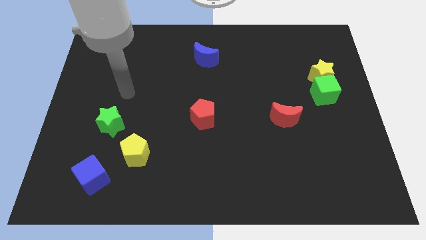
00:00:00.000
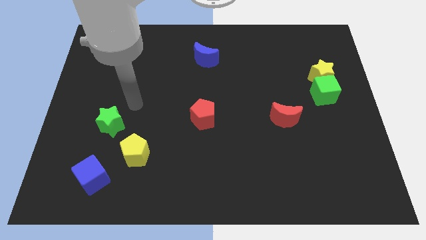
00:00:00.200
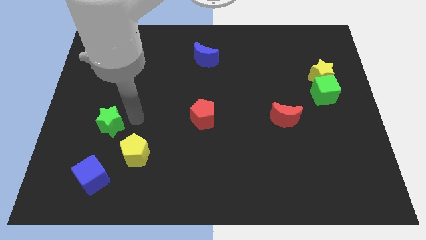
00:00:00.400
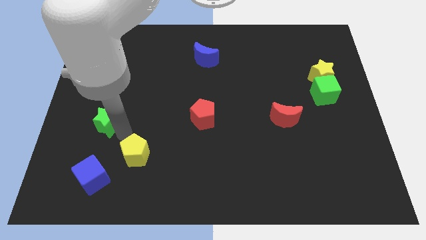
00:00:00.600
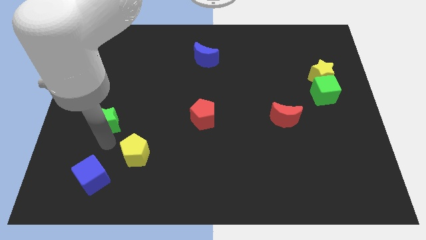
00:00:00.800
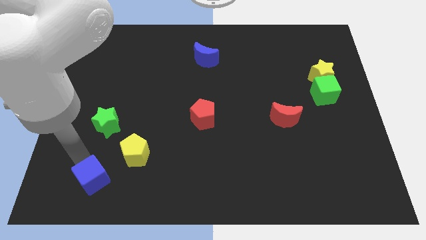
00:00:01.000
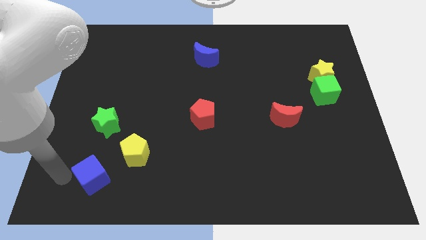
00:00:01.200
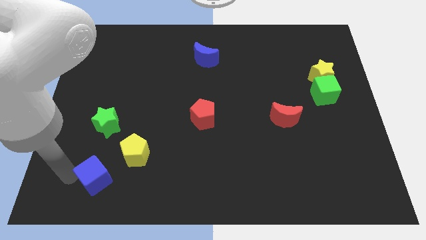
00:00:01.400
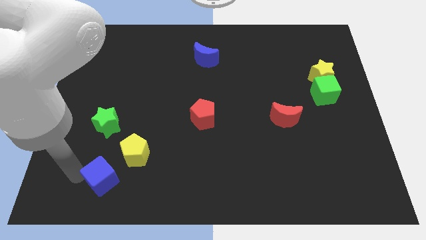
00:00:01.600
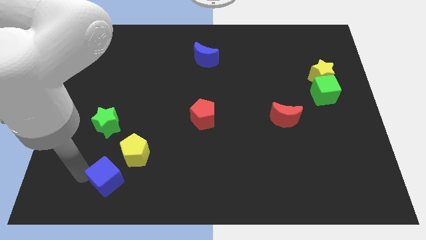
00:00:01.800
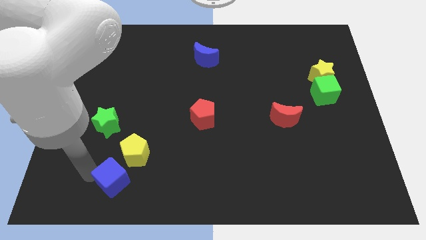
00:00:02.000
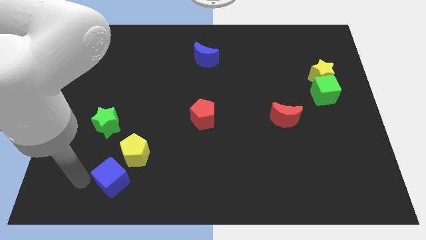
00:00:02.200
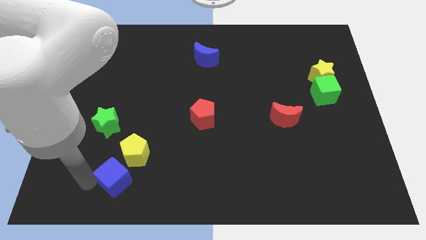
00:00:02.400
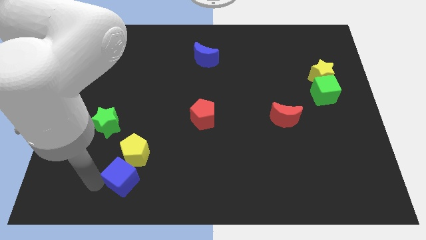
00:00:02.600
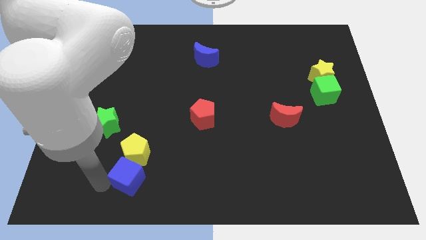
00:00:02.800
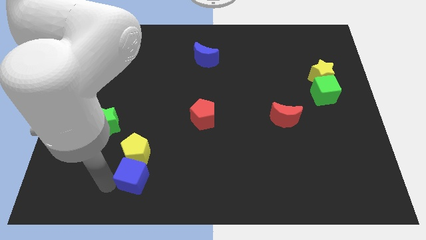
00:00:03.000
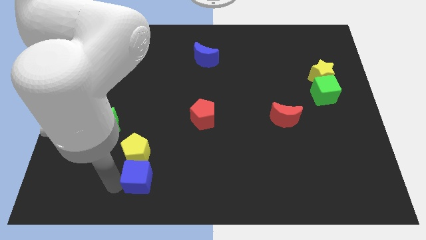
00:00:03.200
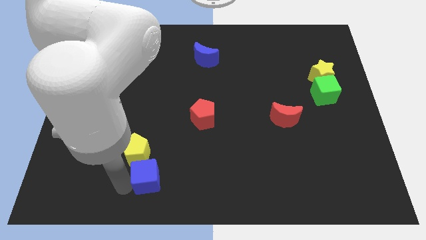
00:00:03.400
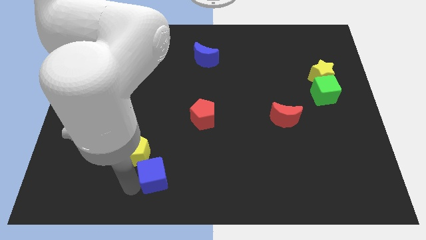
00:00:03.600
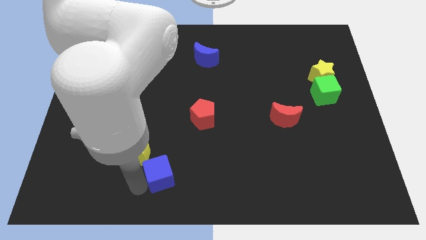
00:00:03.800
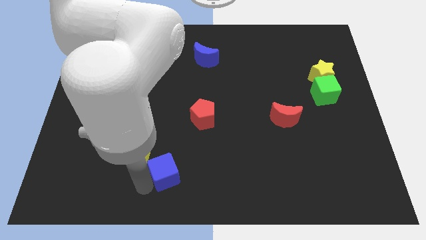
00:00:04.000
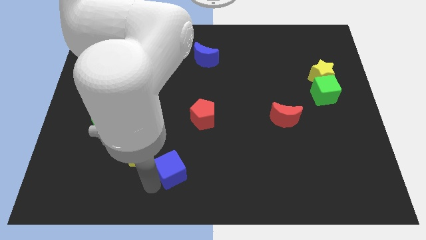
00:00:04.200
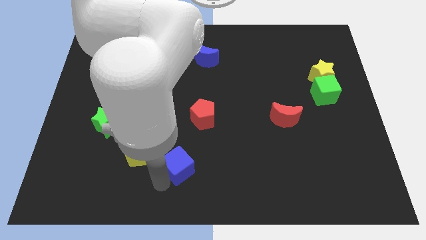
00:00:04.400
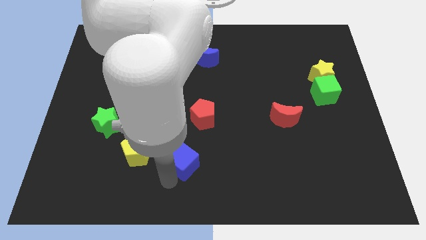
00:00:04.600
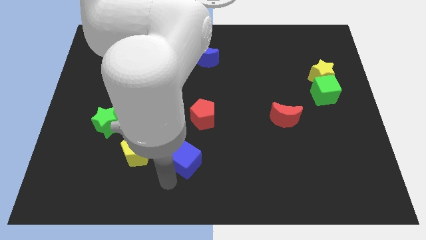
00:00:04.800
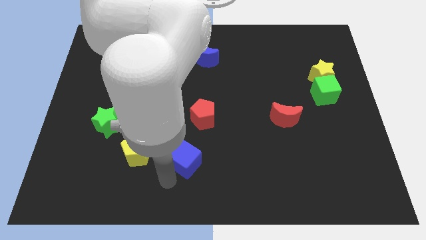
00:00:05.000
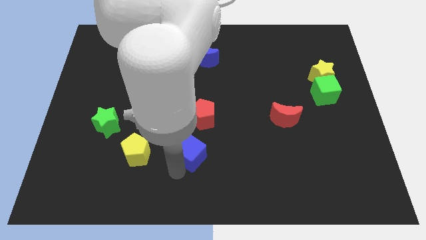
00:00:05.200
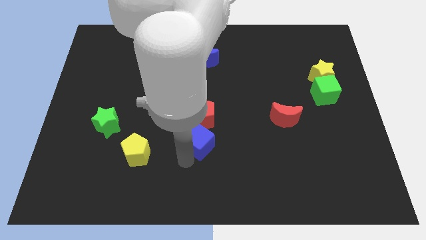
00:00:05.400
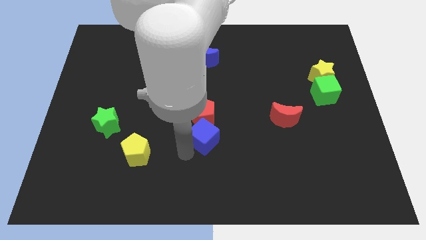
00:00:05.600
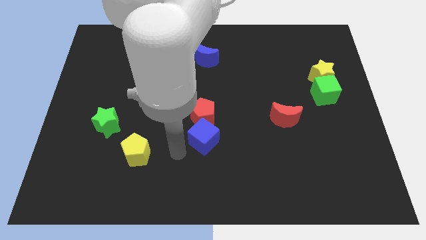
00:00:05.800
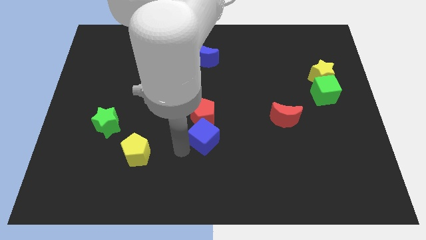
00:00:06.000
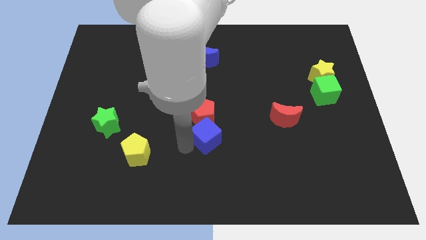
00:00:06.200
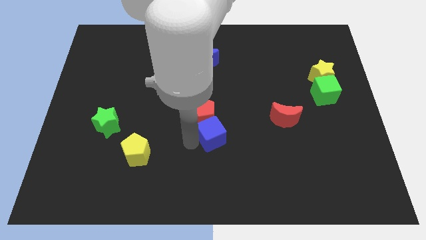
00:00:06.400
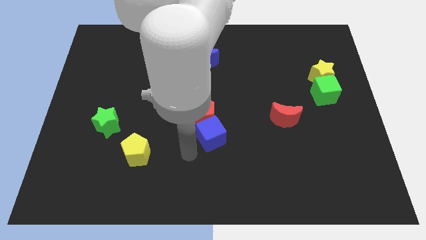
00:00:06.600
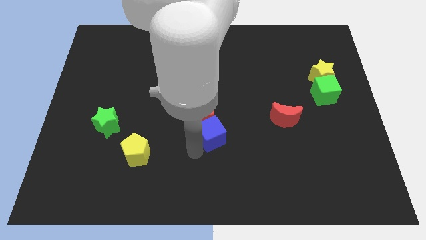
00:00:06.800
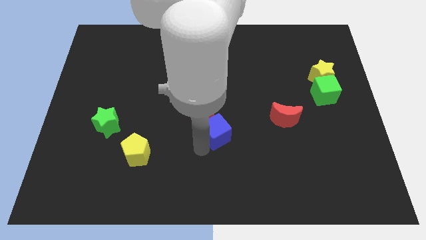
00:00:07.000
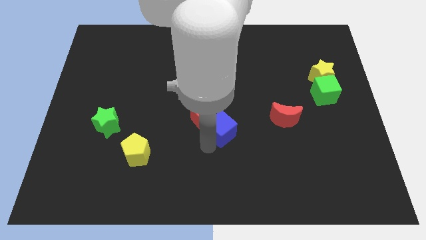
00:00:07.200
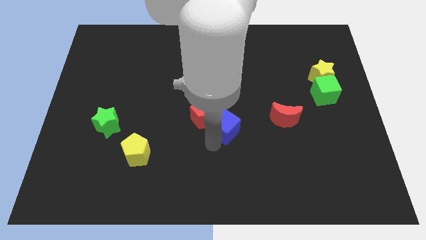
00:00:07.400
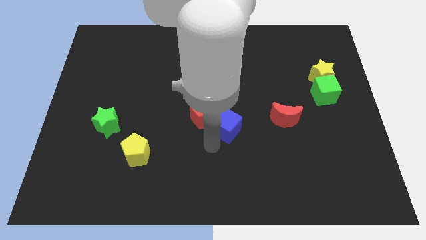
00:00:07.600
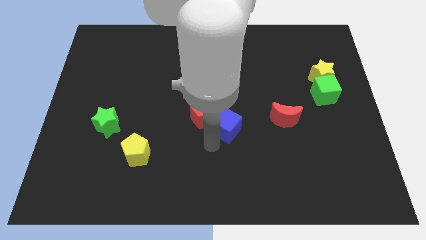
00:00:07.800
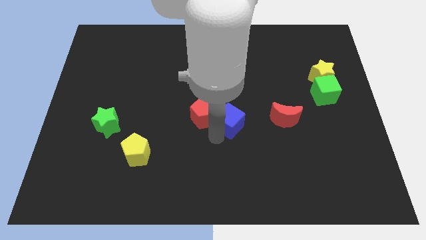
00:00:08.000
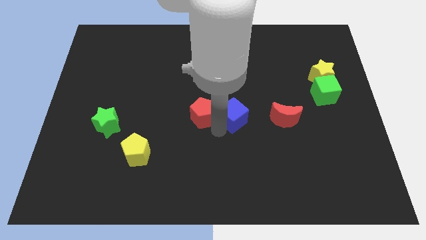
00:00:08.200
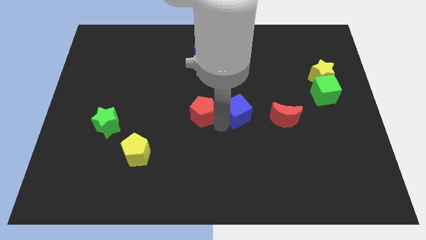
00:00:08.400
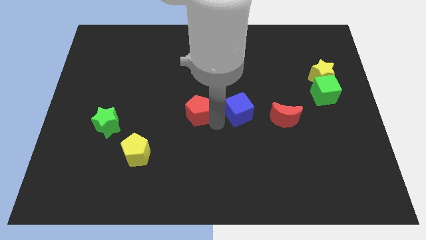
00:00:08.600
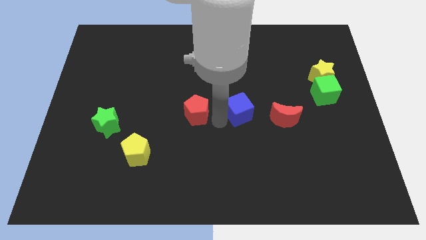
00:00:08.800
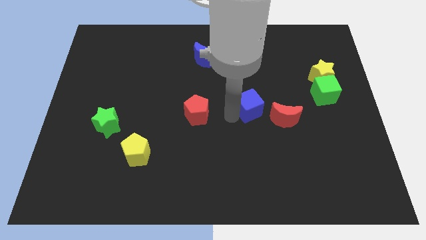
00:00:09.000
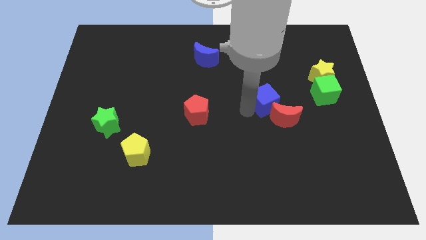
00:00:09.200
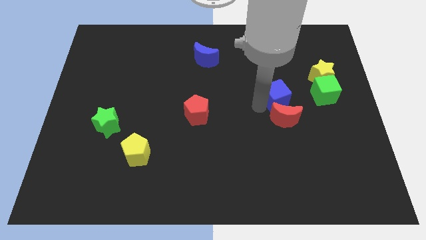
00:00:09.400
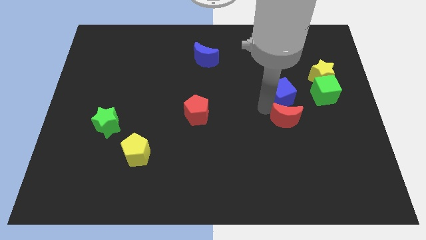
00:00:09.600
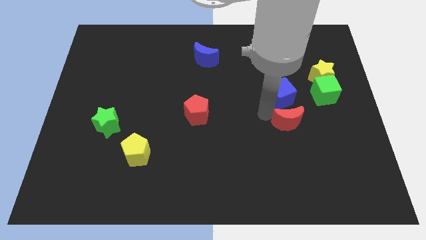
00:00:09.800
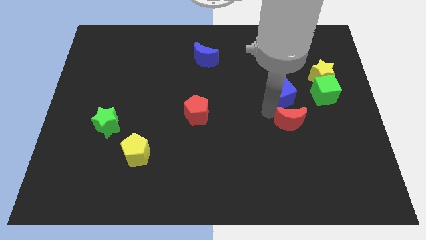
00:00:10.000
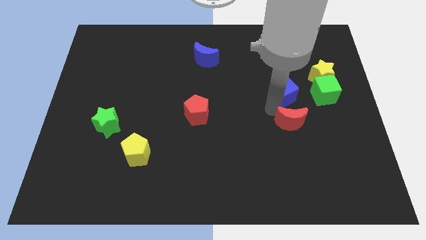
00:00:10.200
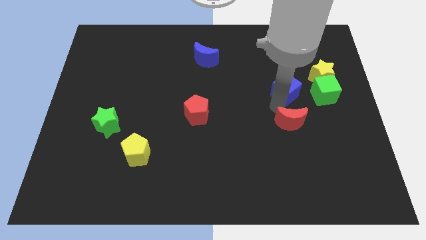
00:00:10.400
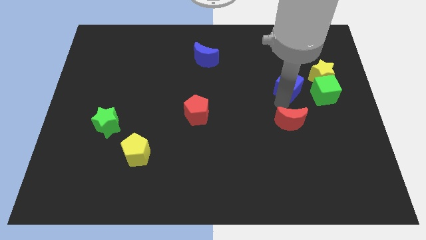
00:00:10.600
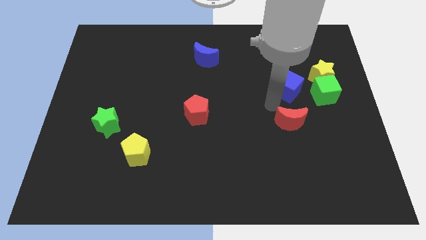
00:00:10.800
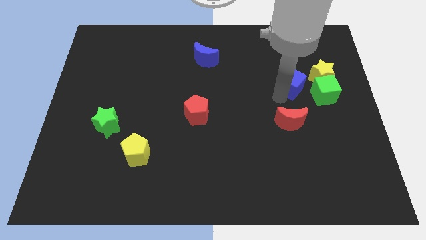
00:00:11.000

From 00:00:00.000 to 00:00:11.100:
push the blue cube to the top left of the green cube

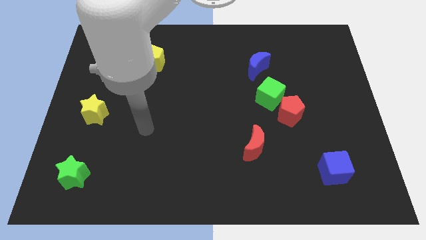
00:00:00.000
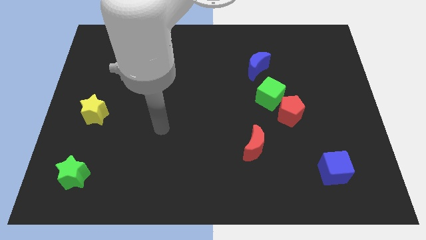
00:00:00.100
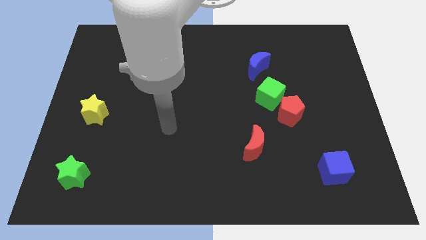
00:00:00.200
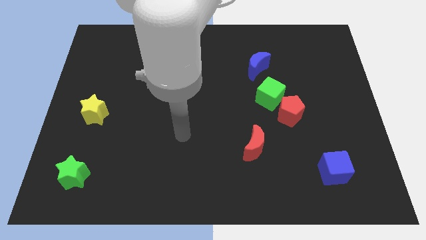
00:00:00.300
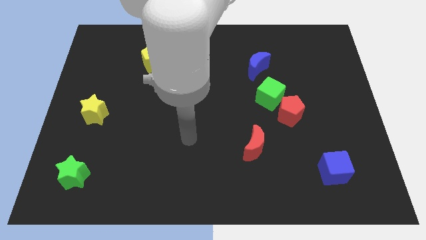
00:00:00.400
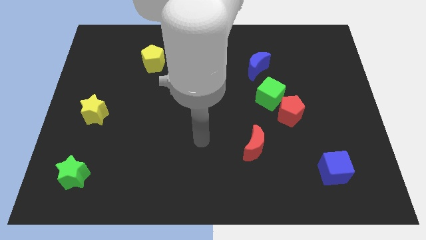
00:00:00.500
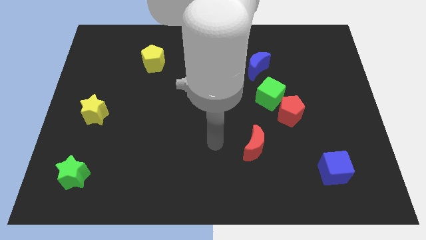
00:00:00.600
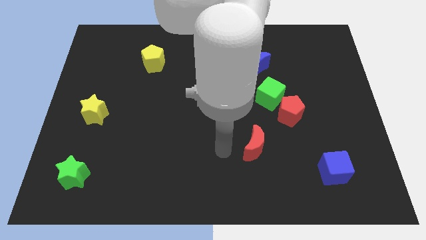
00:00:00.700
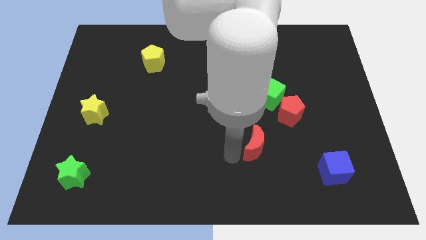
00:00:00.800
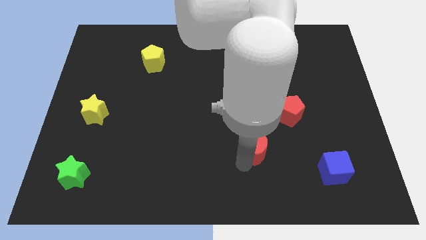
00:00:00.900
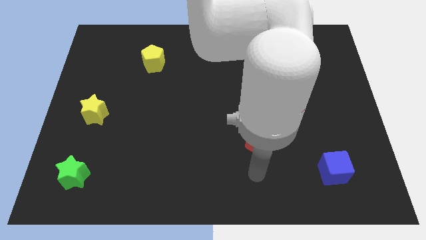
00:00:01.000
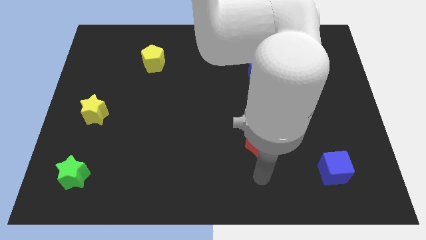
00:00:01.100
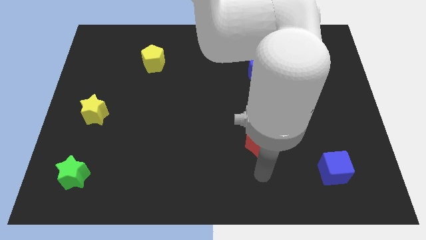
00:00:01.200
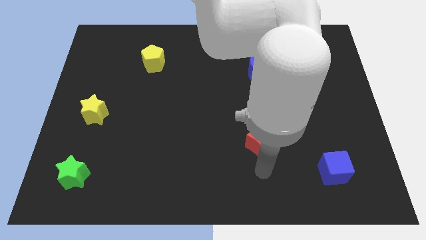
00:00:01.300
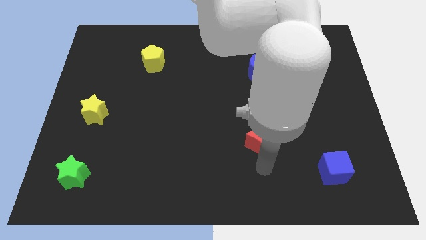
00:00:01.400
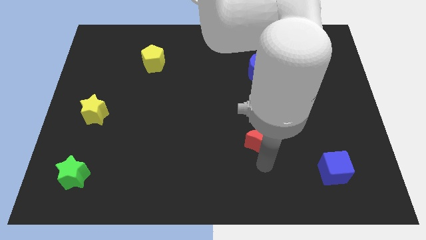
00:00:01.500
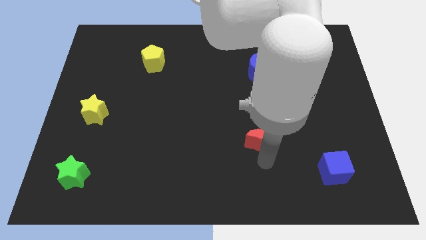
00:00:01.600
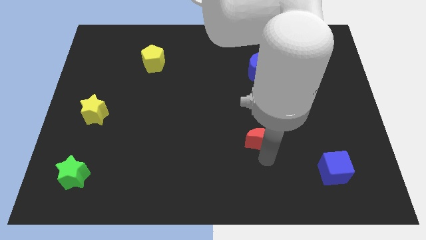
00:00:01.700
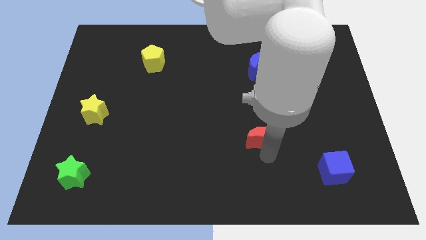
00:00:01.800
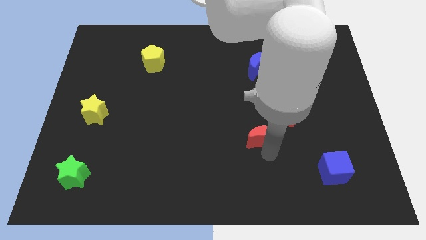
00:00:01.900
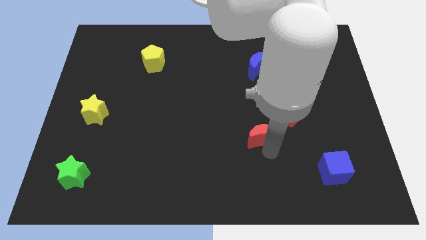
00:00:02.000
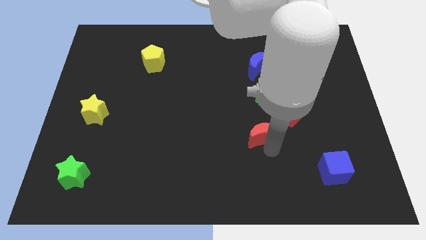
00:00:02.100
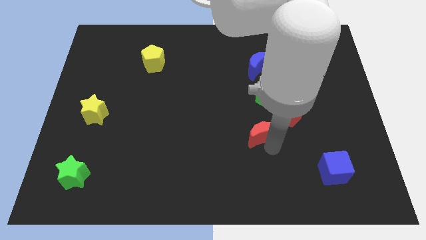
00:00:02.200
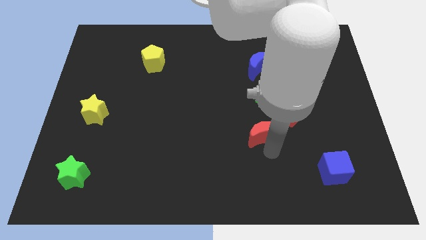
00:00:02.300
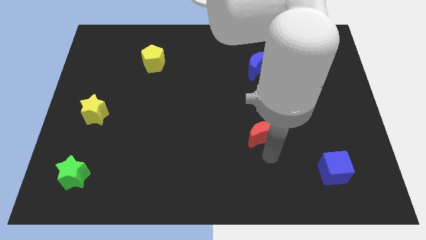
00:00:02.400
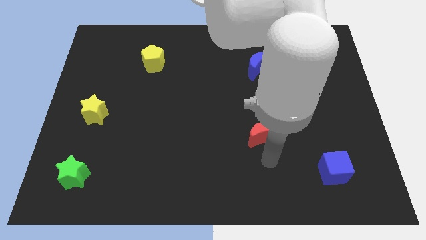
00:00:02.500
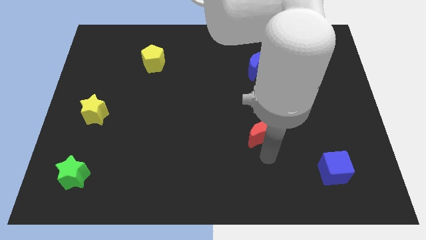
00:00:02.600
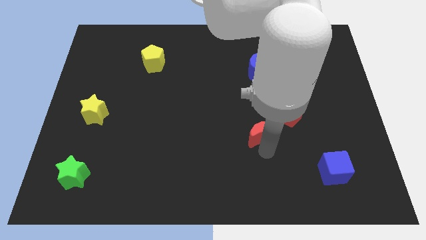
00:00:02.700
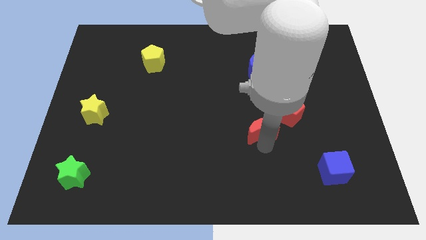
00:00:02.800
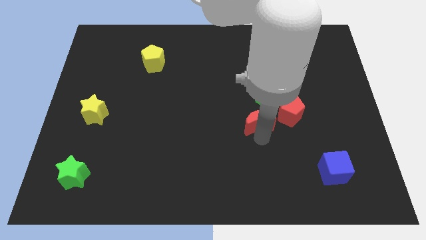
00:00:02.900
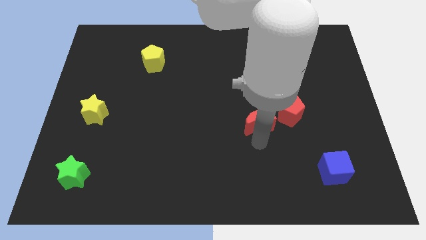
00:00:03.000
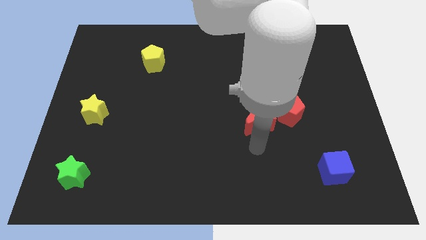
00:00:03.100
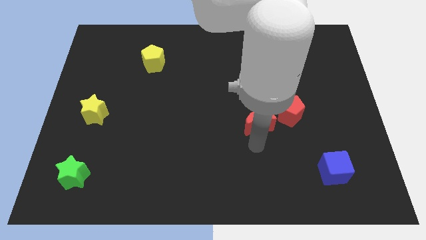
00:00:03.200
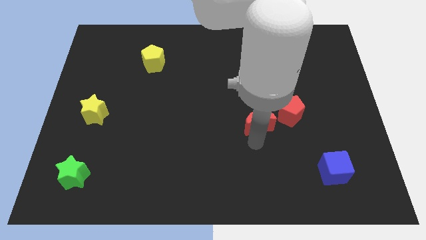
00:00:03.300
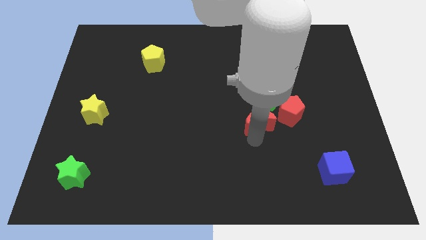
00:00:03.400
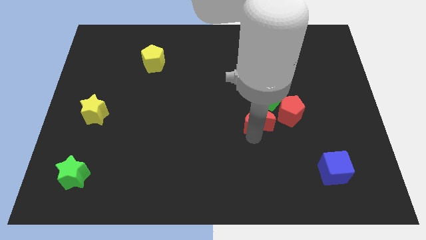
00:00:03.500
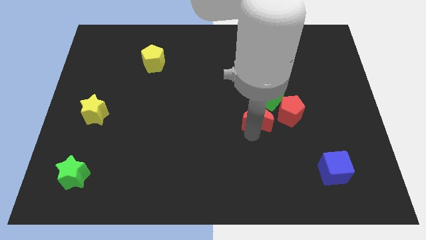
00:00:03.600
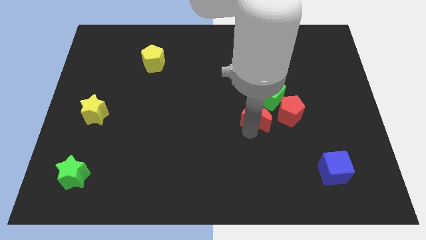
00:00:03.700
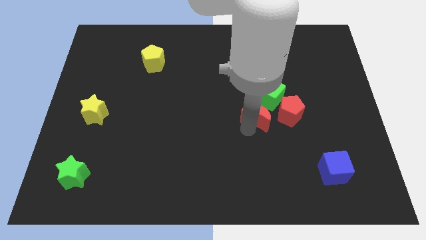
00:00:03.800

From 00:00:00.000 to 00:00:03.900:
move the red moon to the bottom side of the blue moon
